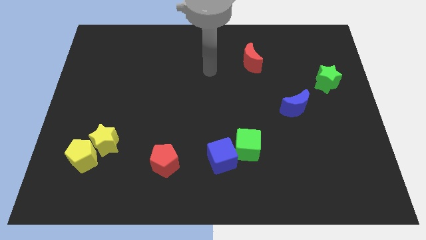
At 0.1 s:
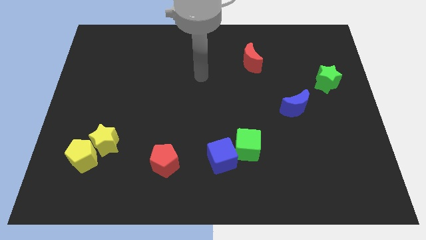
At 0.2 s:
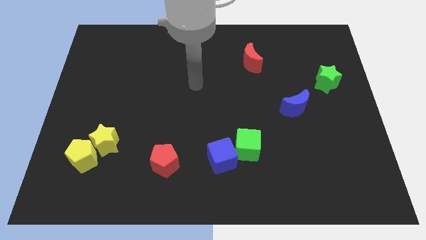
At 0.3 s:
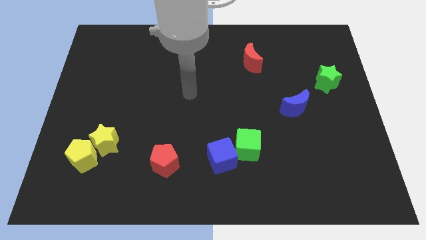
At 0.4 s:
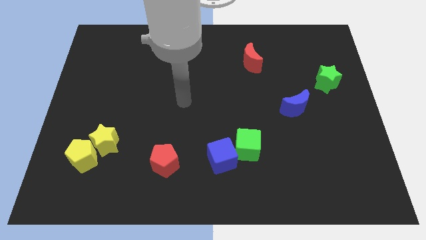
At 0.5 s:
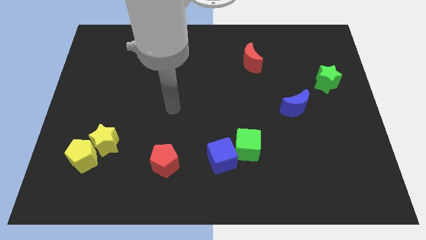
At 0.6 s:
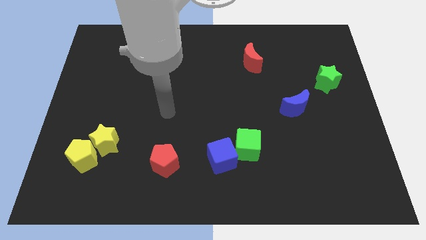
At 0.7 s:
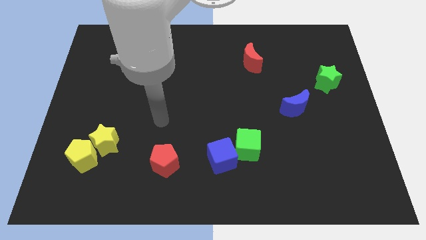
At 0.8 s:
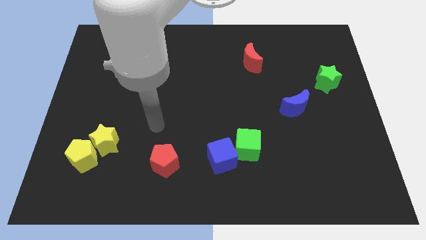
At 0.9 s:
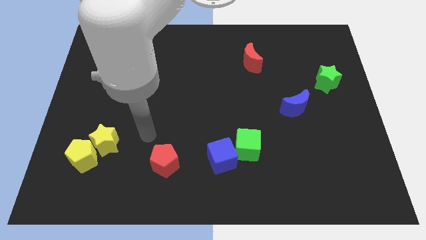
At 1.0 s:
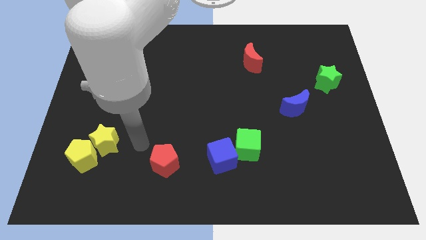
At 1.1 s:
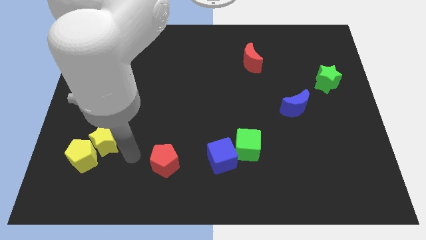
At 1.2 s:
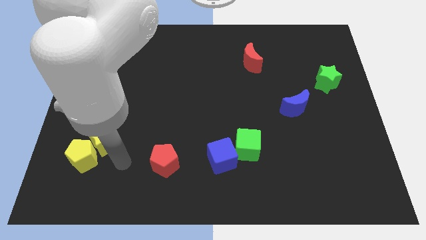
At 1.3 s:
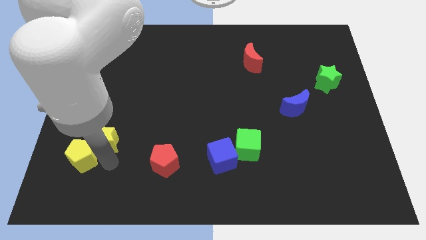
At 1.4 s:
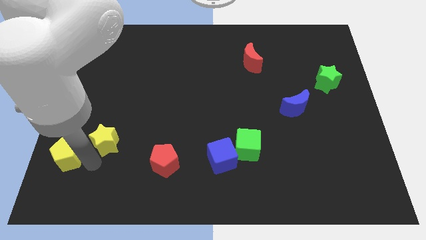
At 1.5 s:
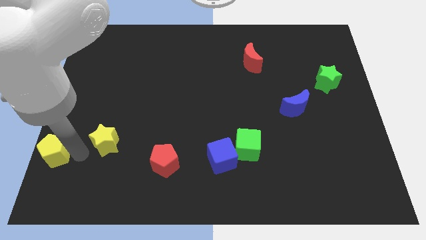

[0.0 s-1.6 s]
pull the yellow star apart from the yellow pentagon

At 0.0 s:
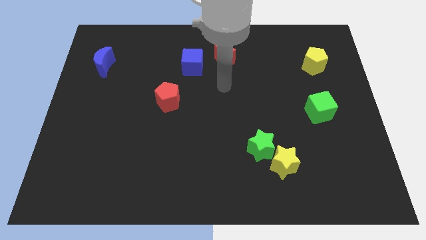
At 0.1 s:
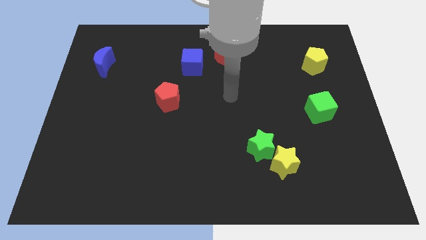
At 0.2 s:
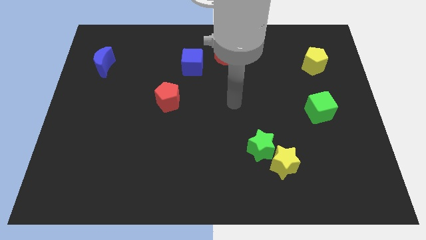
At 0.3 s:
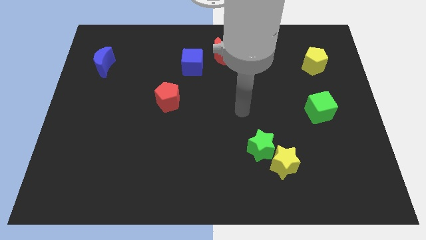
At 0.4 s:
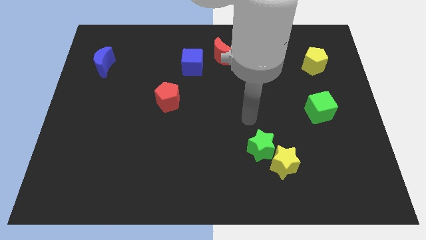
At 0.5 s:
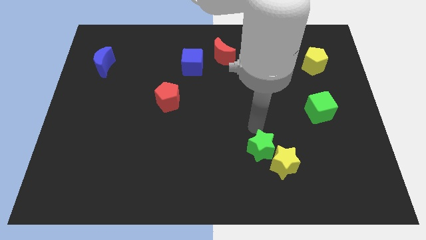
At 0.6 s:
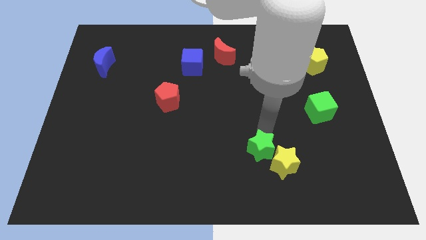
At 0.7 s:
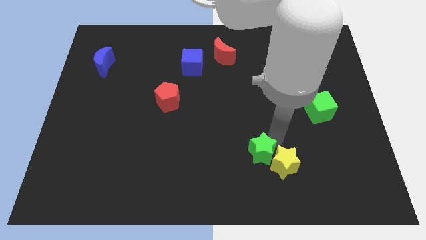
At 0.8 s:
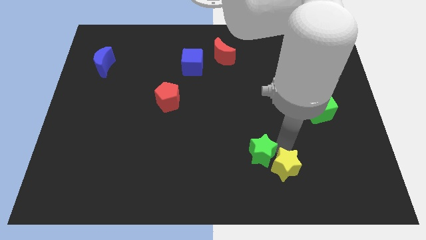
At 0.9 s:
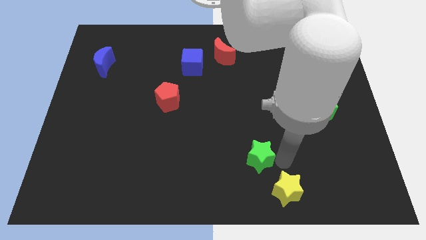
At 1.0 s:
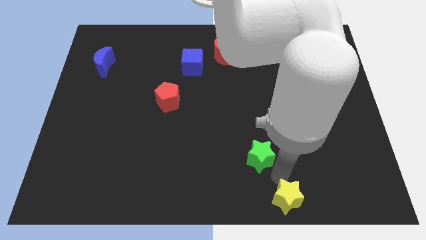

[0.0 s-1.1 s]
separate the green star from the yellow star

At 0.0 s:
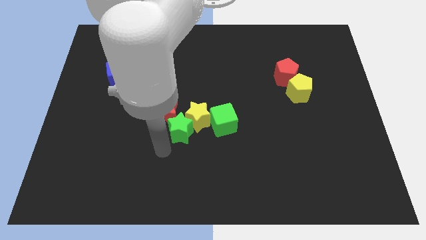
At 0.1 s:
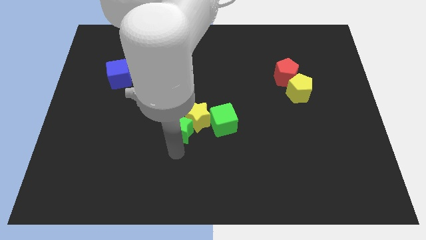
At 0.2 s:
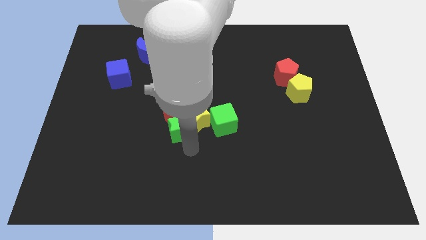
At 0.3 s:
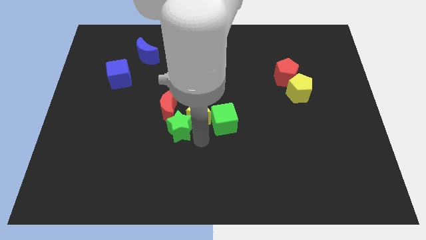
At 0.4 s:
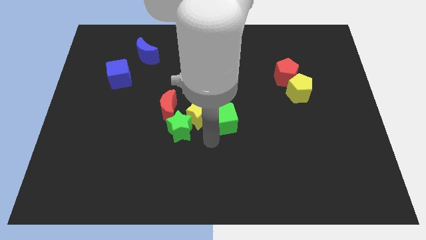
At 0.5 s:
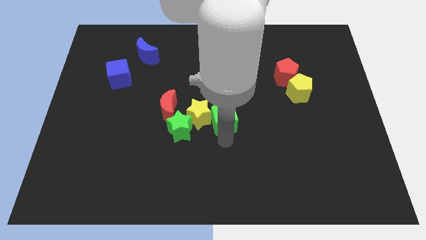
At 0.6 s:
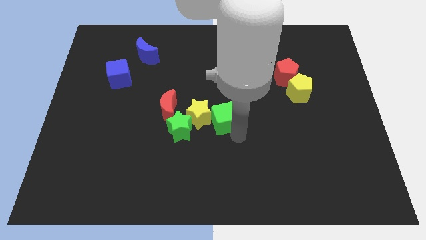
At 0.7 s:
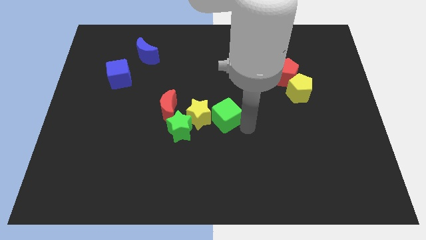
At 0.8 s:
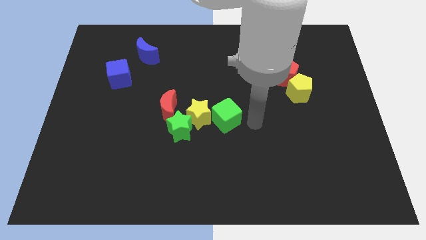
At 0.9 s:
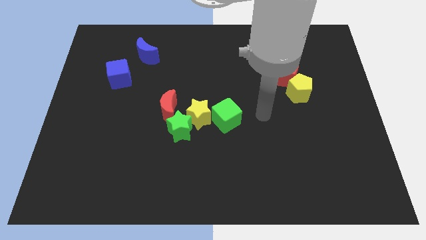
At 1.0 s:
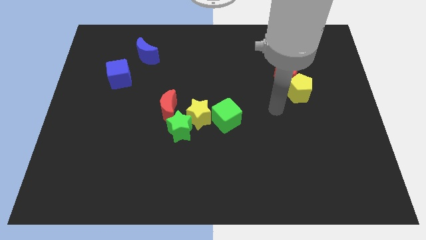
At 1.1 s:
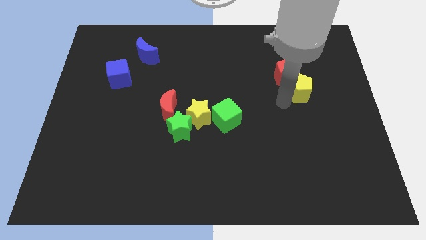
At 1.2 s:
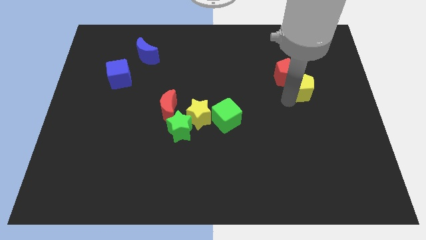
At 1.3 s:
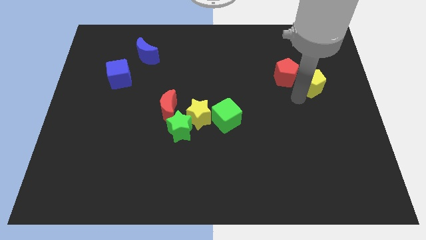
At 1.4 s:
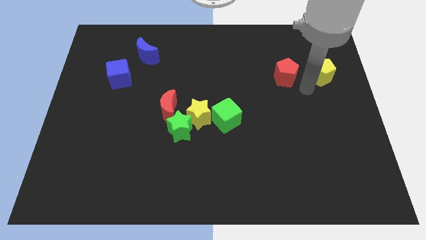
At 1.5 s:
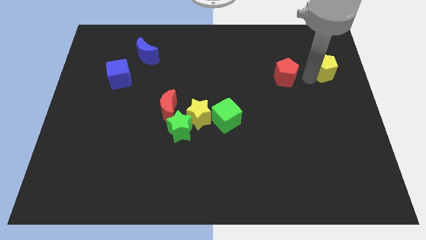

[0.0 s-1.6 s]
pull the red pentagon apart from the yellow pentagon

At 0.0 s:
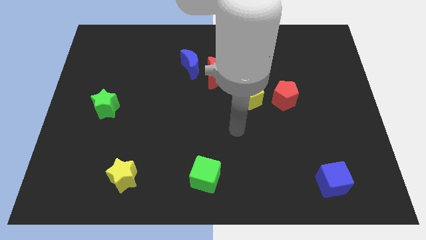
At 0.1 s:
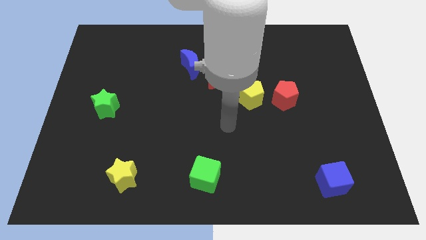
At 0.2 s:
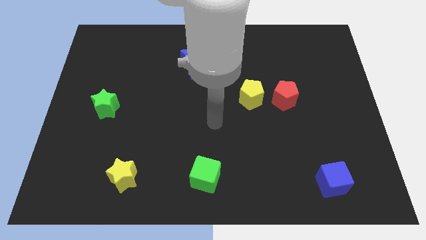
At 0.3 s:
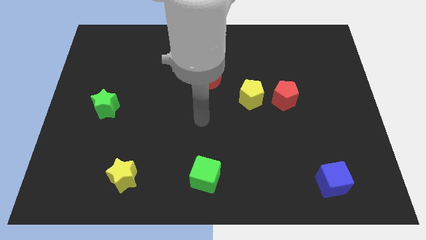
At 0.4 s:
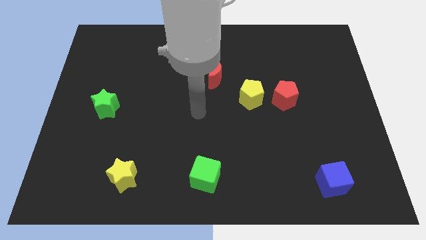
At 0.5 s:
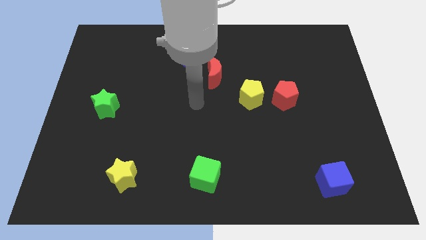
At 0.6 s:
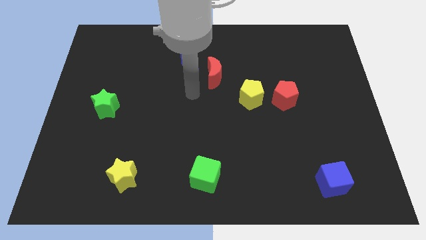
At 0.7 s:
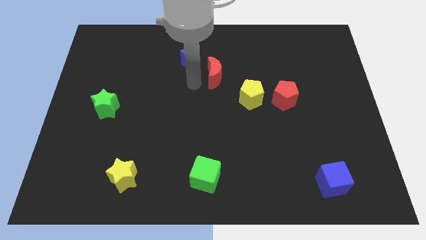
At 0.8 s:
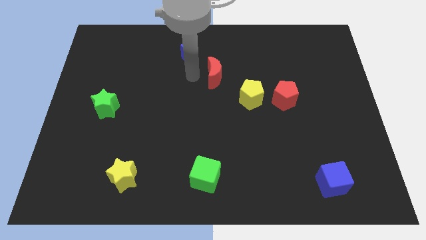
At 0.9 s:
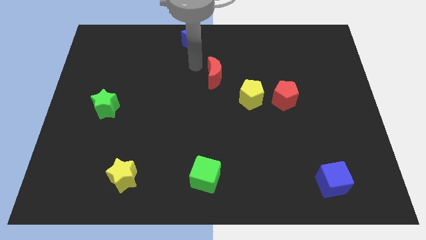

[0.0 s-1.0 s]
separate the red moon from the blue moon

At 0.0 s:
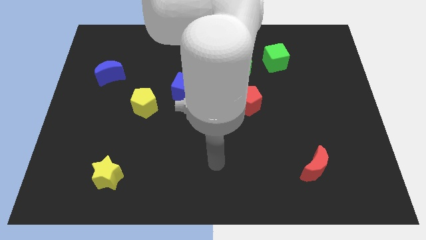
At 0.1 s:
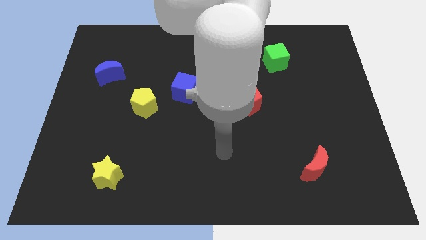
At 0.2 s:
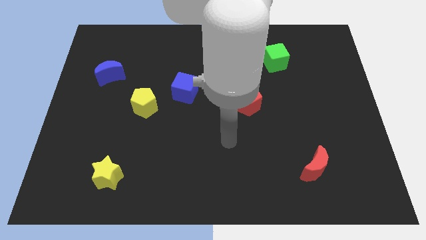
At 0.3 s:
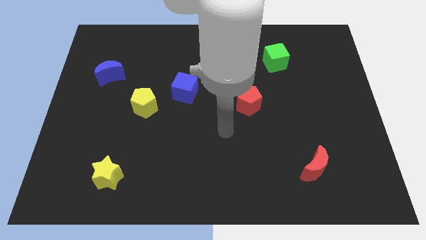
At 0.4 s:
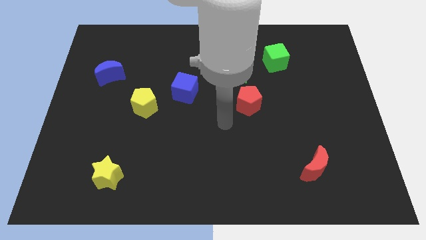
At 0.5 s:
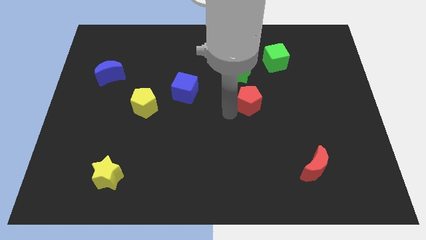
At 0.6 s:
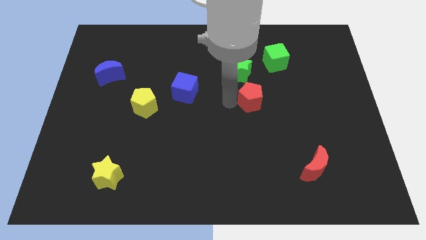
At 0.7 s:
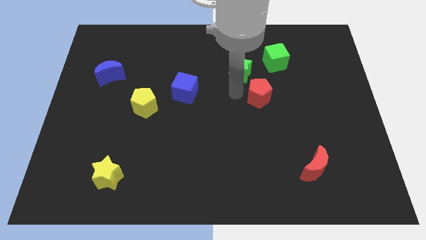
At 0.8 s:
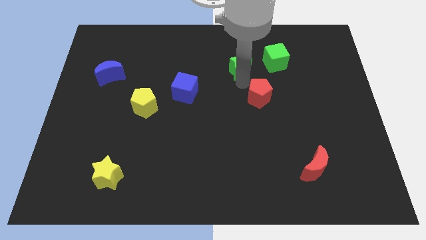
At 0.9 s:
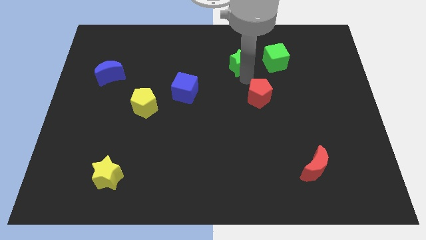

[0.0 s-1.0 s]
move the red pentagon away from the green star

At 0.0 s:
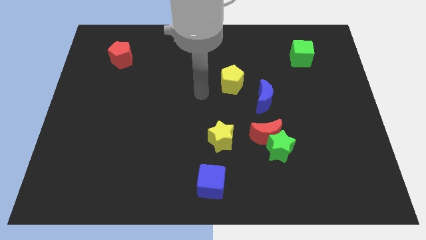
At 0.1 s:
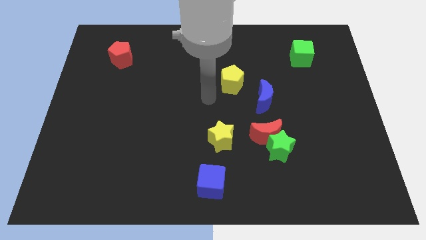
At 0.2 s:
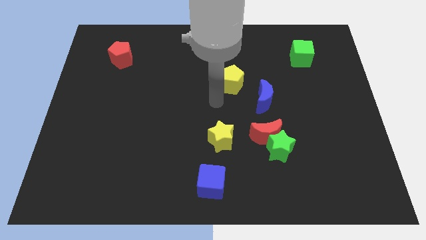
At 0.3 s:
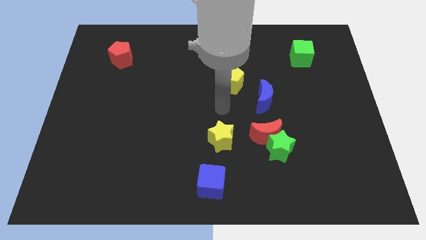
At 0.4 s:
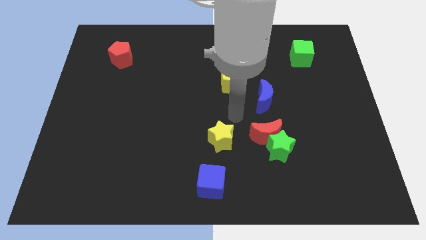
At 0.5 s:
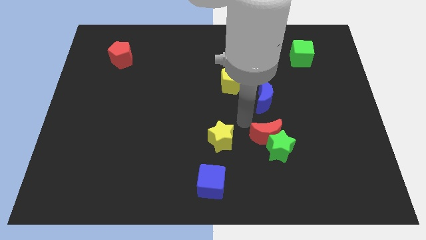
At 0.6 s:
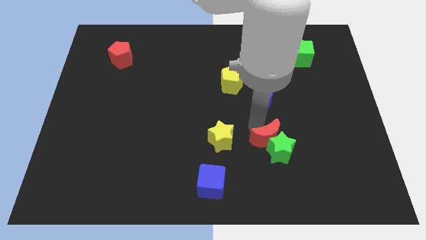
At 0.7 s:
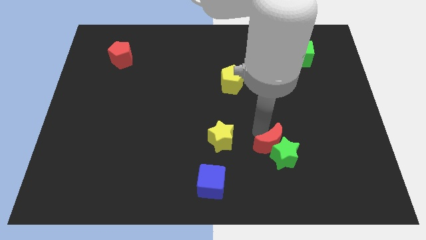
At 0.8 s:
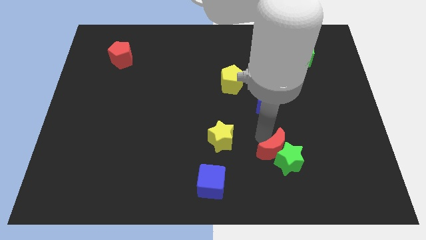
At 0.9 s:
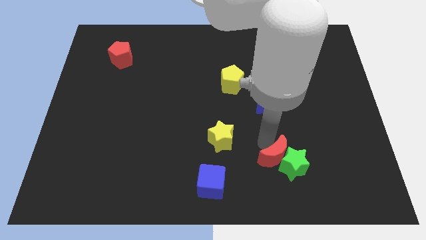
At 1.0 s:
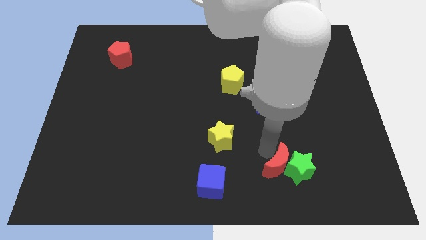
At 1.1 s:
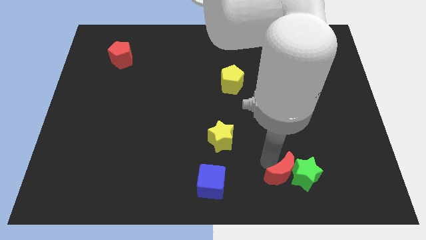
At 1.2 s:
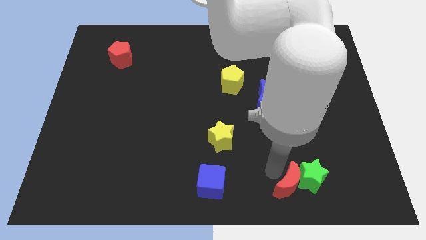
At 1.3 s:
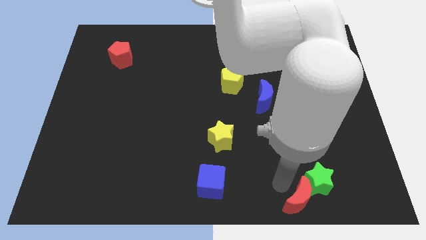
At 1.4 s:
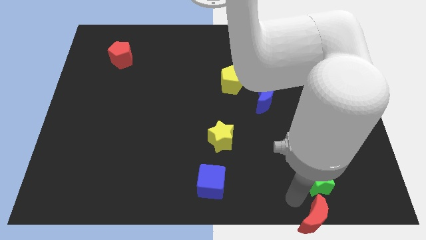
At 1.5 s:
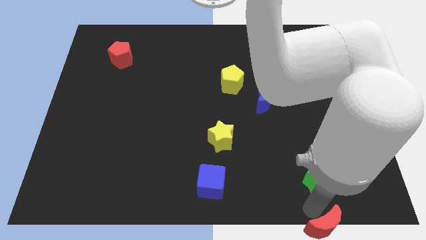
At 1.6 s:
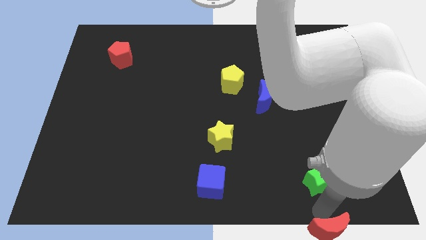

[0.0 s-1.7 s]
pull the green star apart from the red moon

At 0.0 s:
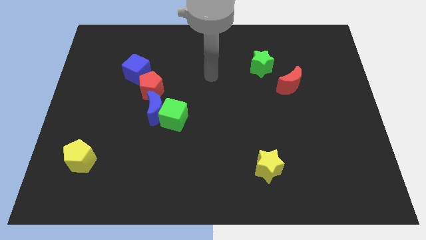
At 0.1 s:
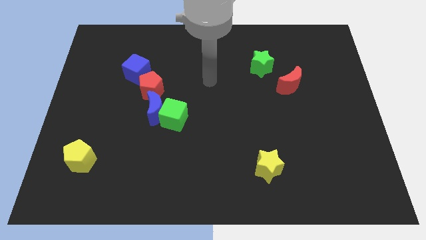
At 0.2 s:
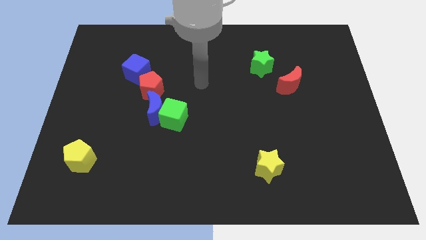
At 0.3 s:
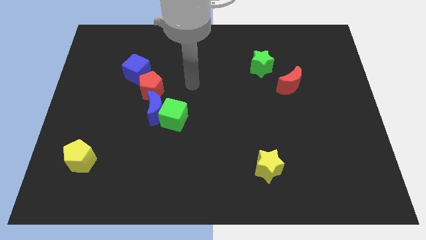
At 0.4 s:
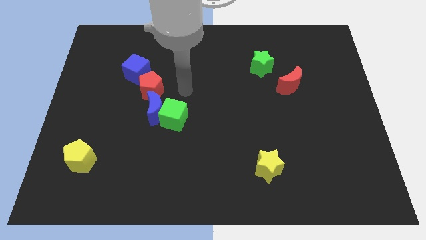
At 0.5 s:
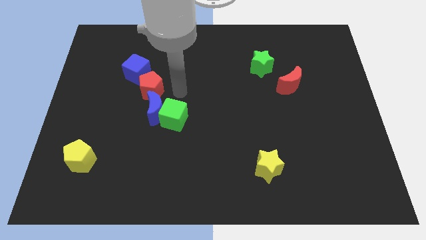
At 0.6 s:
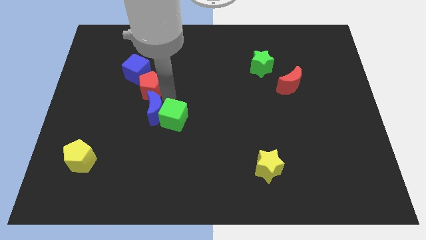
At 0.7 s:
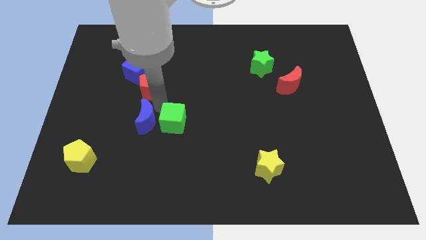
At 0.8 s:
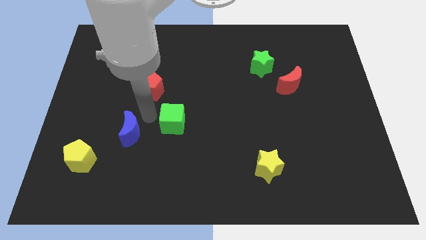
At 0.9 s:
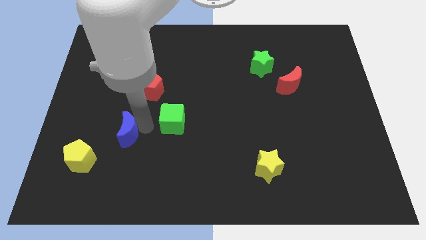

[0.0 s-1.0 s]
pull the green cube apart from the blue moon

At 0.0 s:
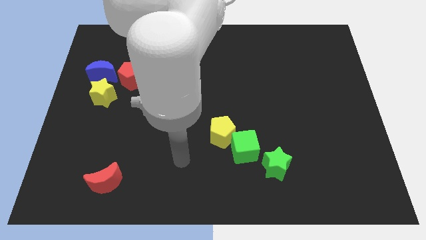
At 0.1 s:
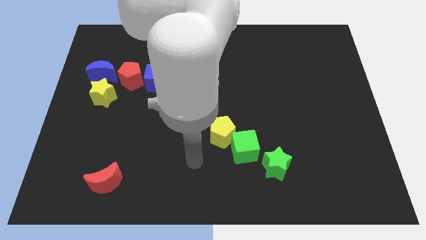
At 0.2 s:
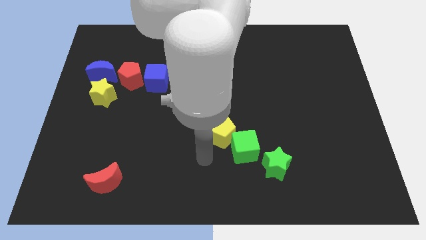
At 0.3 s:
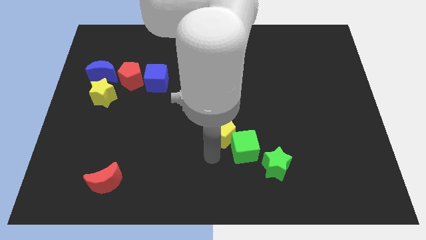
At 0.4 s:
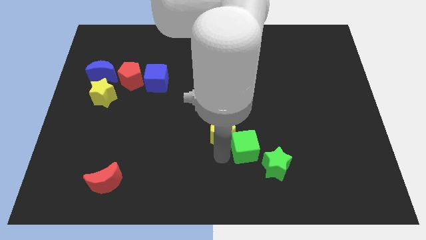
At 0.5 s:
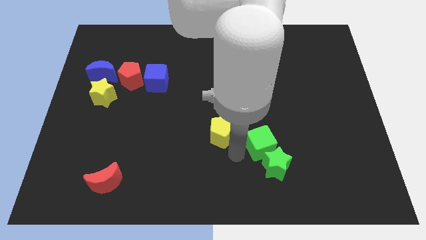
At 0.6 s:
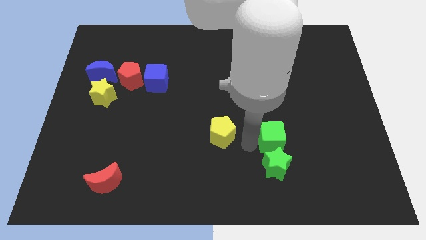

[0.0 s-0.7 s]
separate the yellow pentagon from the green cube
